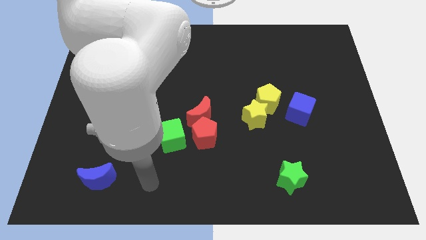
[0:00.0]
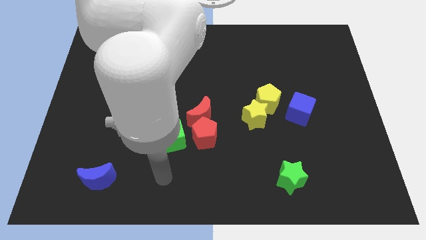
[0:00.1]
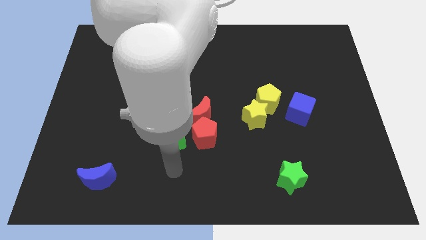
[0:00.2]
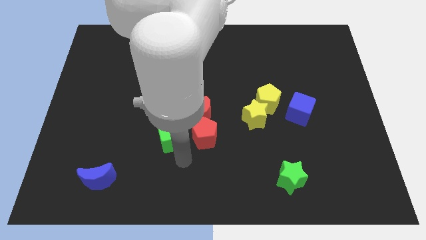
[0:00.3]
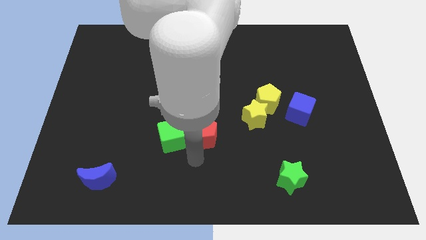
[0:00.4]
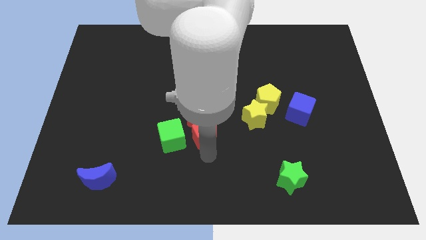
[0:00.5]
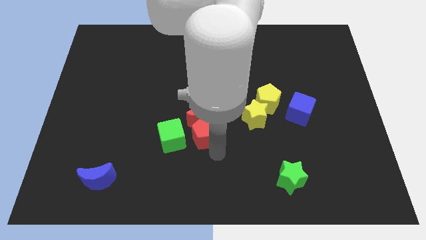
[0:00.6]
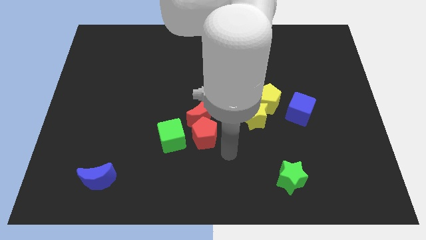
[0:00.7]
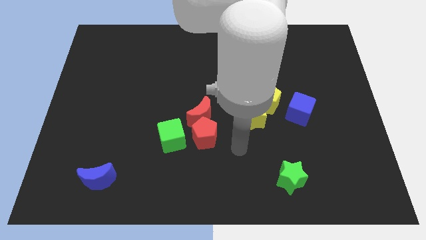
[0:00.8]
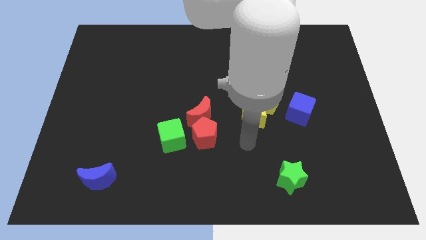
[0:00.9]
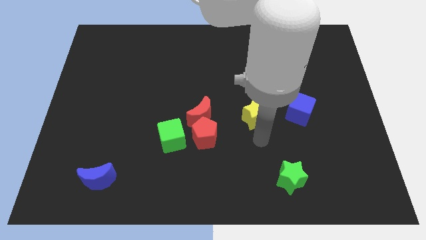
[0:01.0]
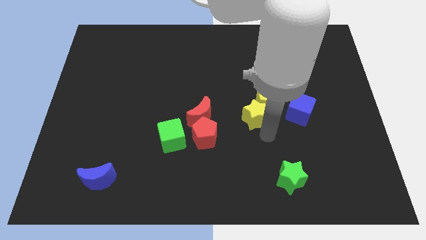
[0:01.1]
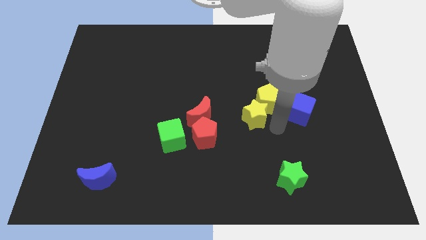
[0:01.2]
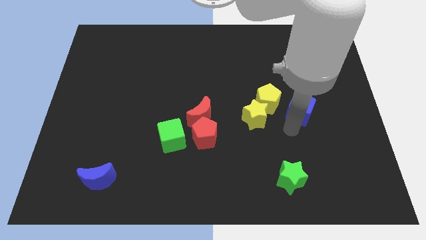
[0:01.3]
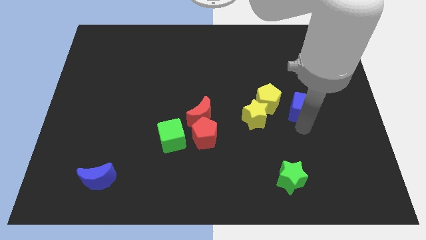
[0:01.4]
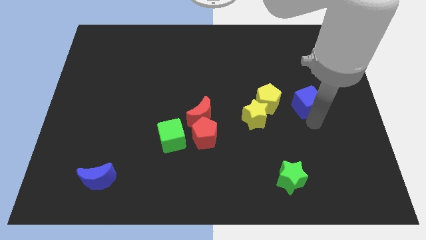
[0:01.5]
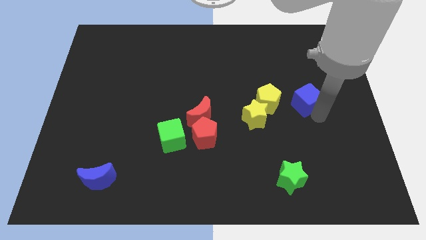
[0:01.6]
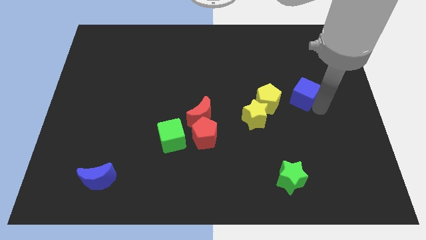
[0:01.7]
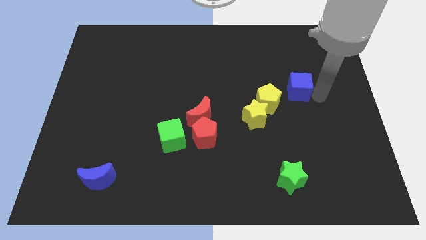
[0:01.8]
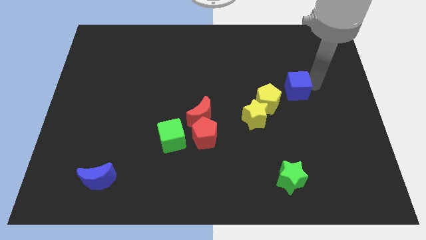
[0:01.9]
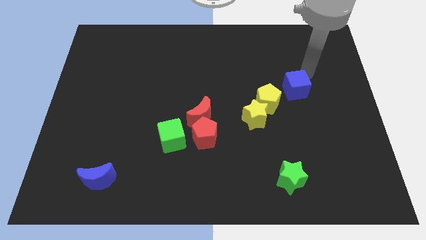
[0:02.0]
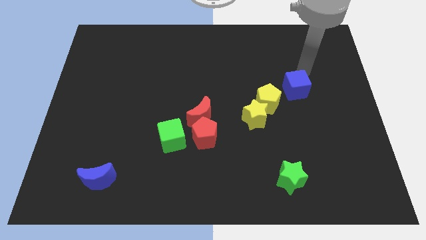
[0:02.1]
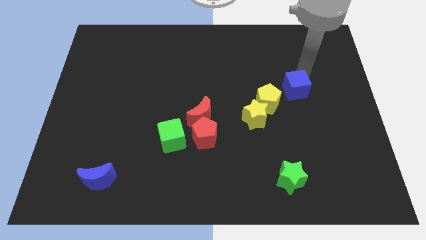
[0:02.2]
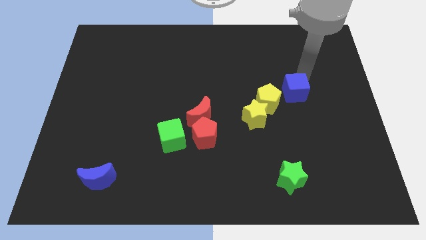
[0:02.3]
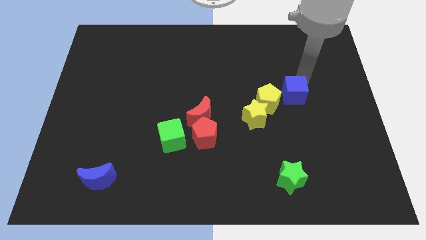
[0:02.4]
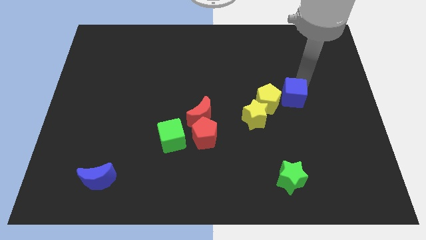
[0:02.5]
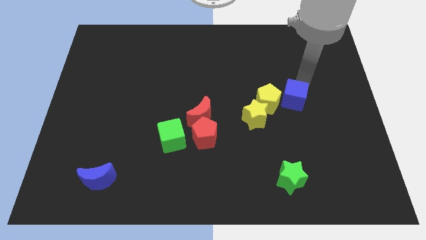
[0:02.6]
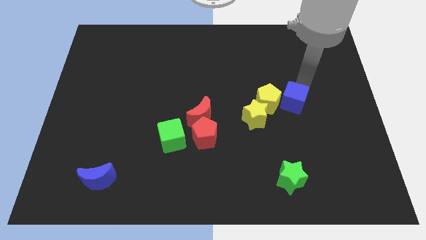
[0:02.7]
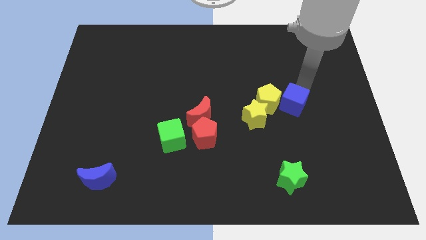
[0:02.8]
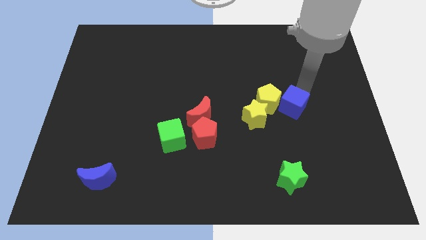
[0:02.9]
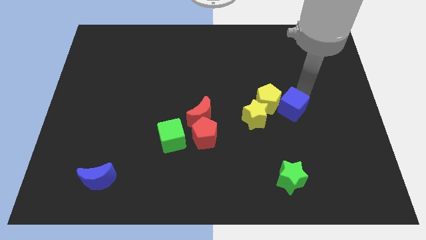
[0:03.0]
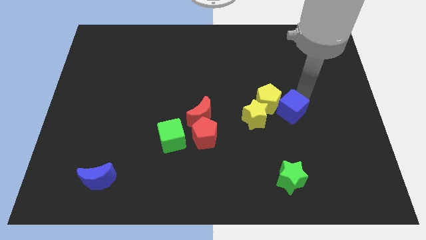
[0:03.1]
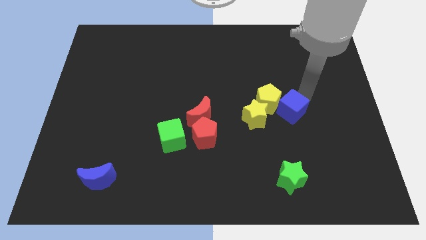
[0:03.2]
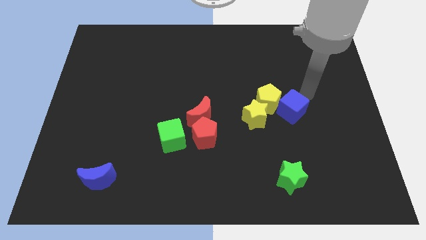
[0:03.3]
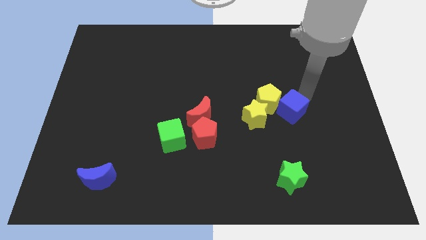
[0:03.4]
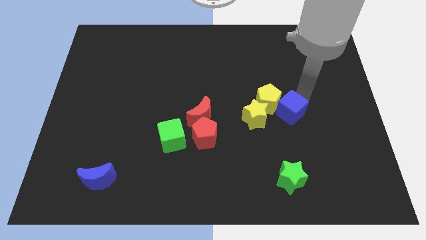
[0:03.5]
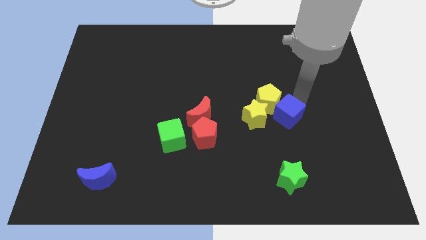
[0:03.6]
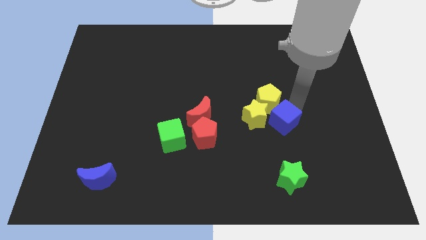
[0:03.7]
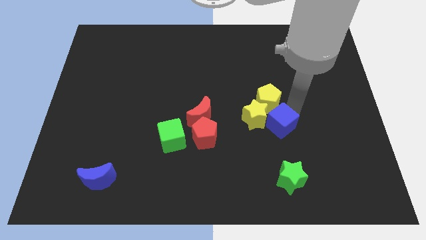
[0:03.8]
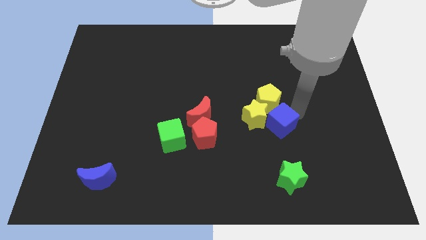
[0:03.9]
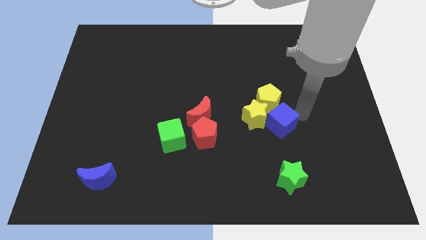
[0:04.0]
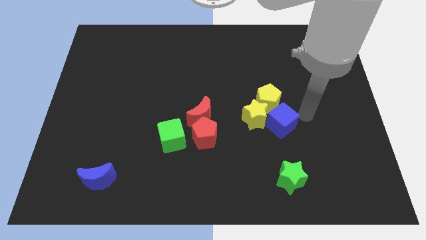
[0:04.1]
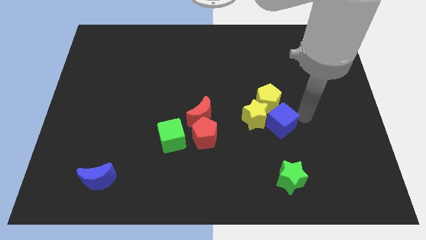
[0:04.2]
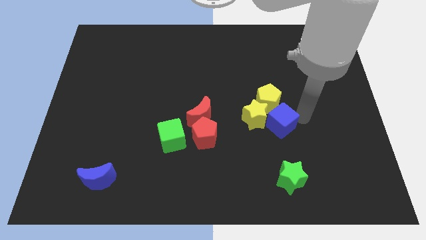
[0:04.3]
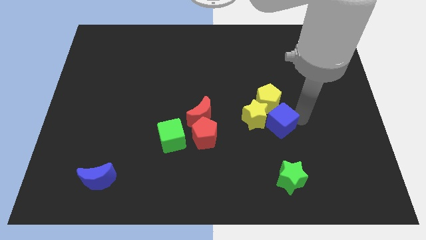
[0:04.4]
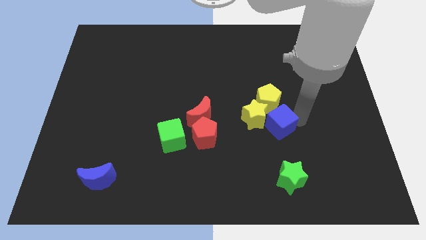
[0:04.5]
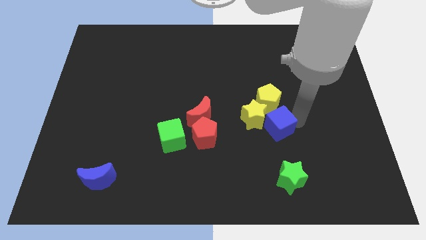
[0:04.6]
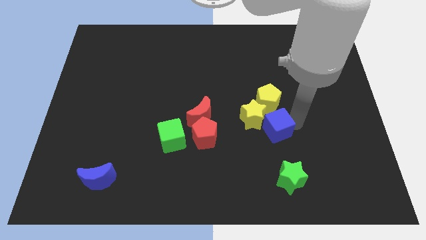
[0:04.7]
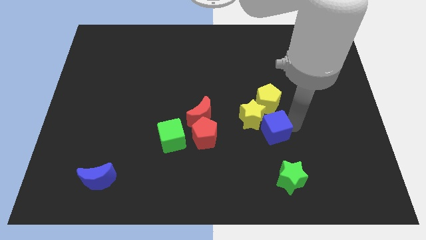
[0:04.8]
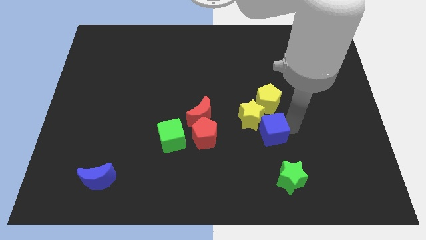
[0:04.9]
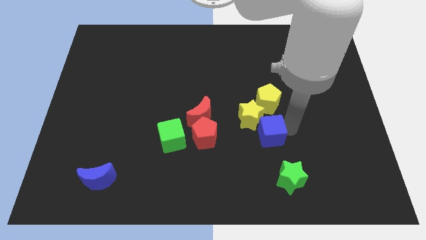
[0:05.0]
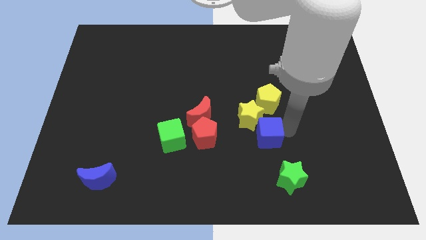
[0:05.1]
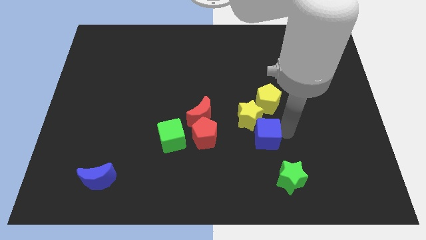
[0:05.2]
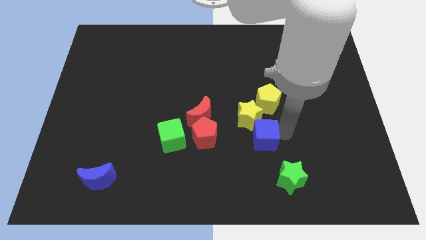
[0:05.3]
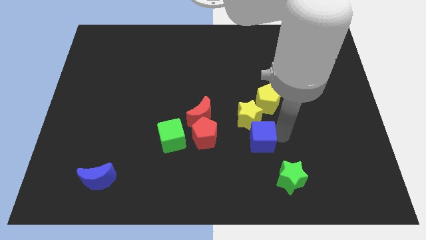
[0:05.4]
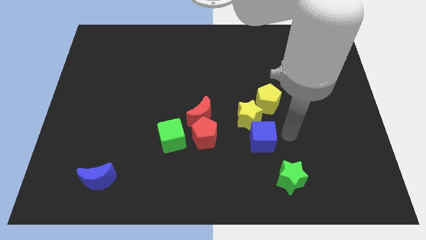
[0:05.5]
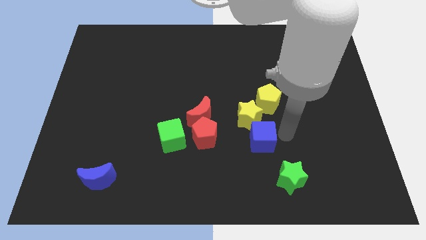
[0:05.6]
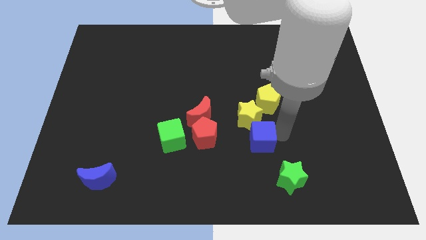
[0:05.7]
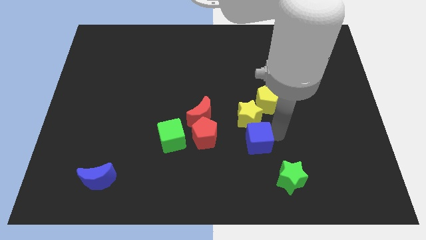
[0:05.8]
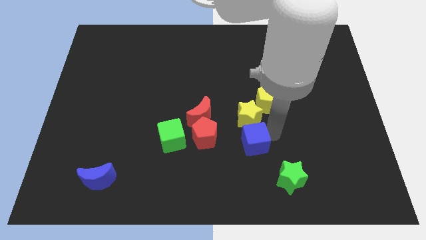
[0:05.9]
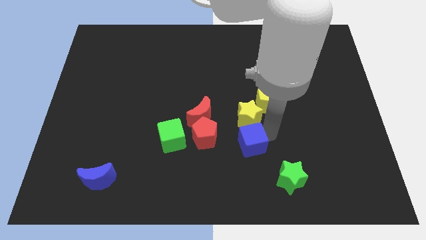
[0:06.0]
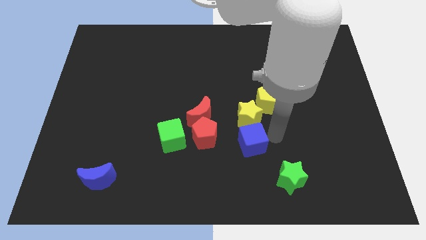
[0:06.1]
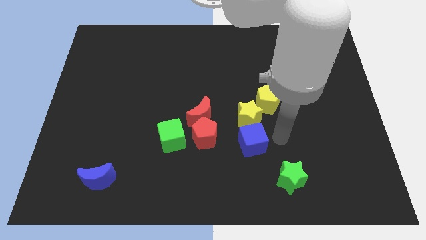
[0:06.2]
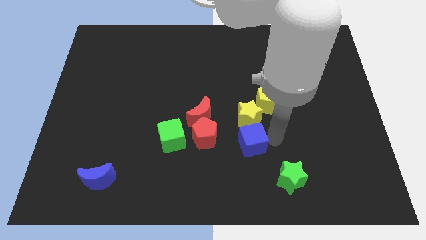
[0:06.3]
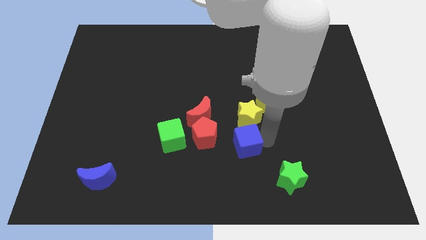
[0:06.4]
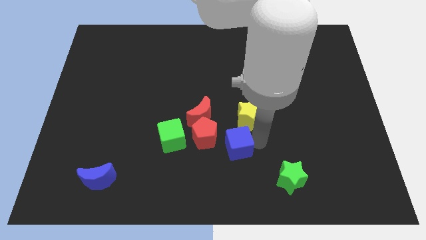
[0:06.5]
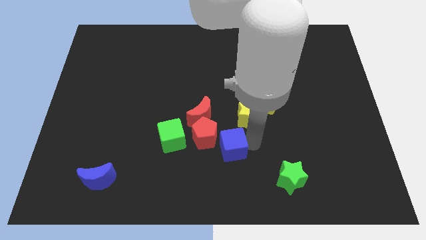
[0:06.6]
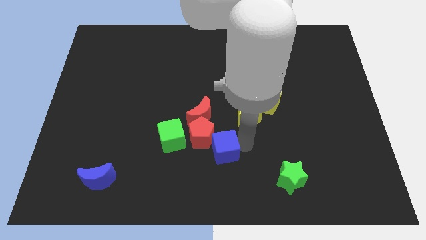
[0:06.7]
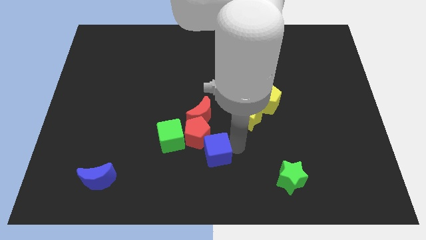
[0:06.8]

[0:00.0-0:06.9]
slide the blue cube to the bottom side of the red moon

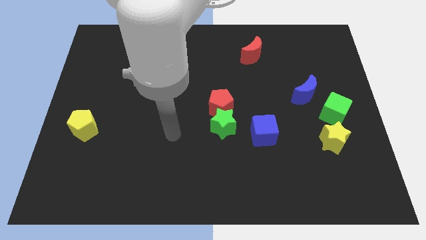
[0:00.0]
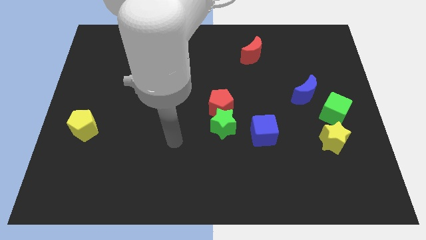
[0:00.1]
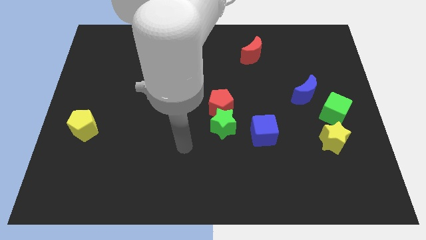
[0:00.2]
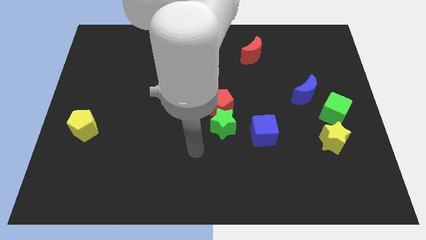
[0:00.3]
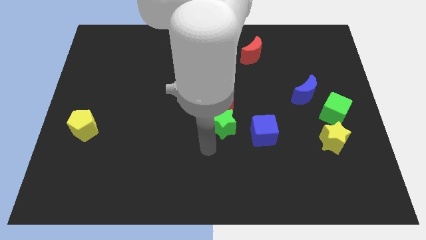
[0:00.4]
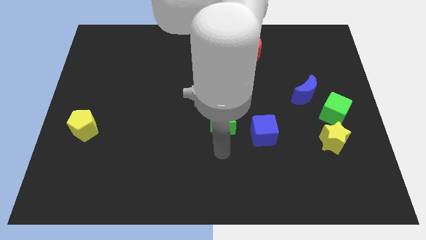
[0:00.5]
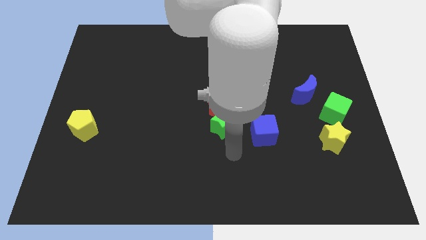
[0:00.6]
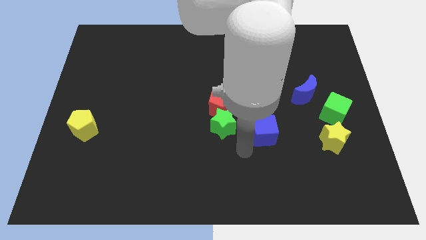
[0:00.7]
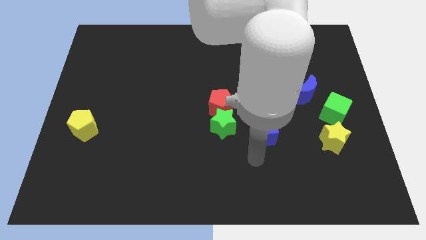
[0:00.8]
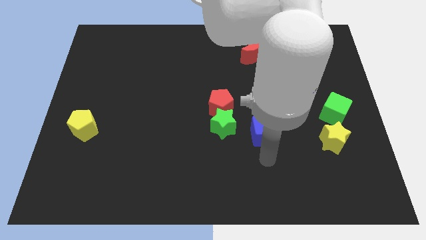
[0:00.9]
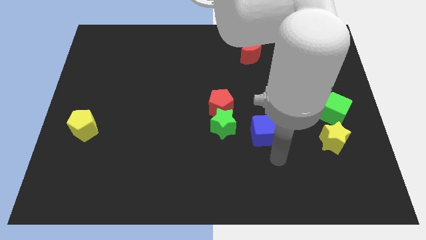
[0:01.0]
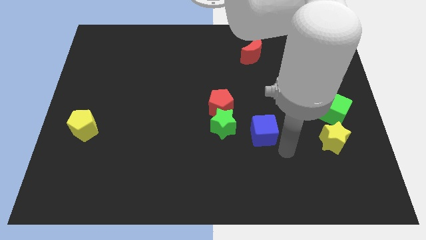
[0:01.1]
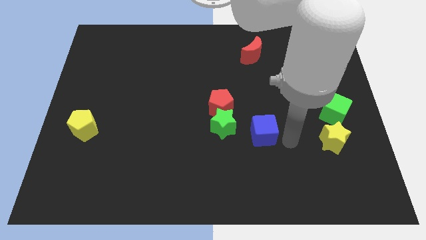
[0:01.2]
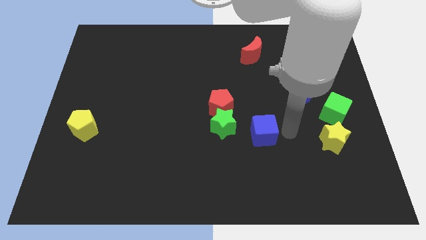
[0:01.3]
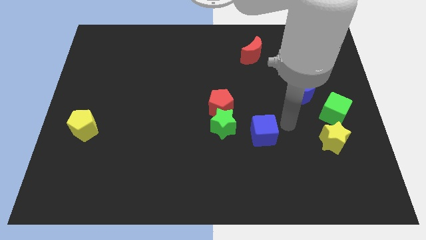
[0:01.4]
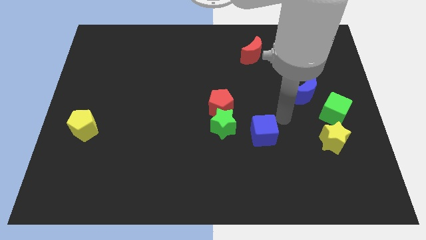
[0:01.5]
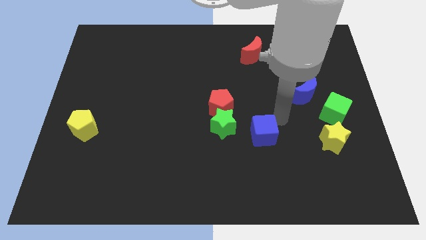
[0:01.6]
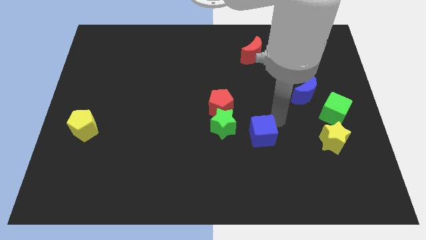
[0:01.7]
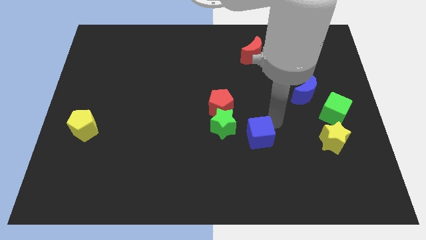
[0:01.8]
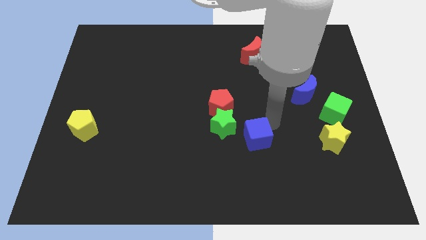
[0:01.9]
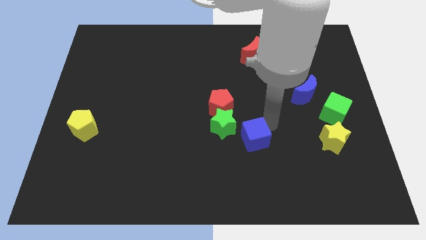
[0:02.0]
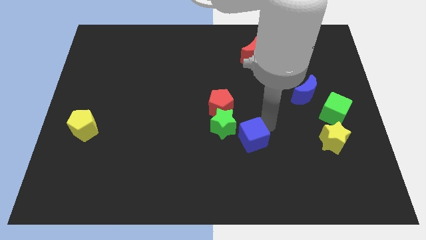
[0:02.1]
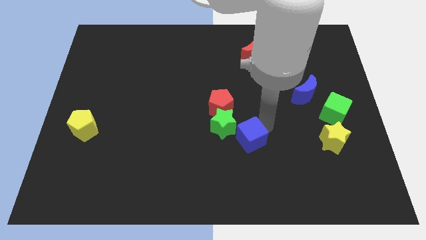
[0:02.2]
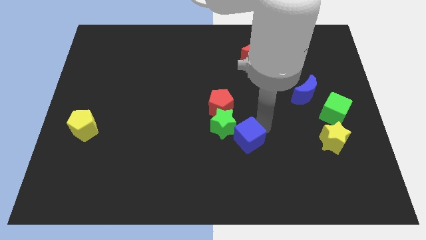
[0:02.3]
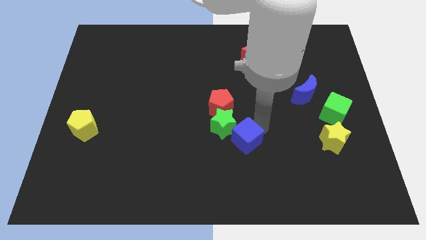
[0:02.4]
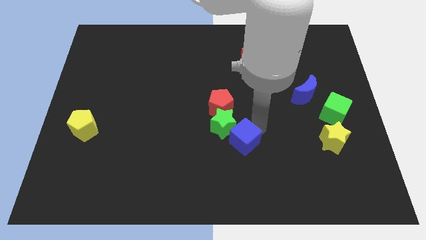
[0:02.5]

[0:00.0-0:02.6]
push the blue cube to the bottom side of the green star
